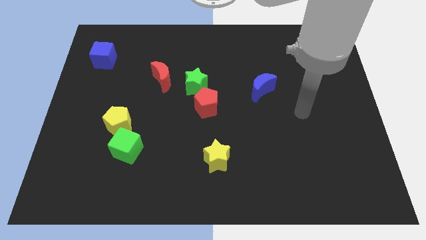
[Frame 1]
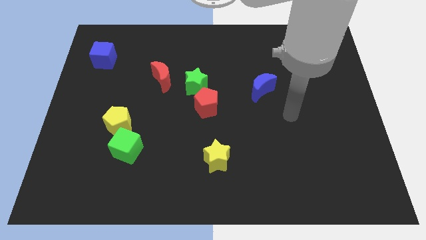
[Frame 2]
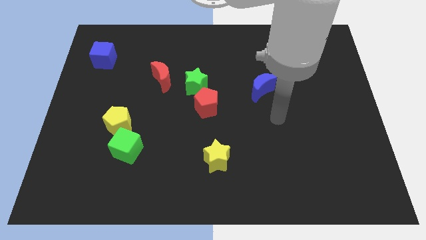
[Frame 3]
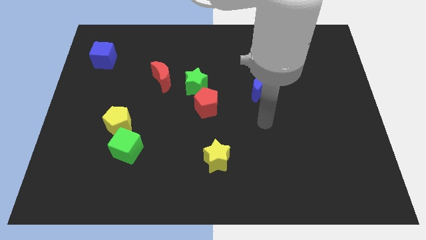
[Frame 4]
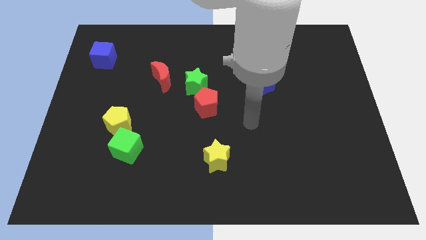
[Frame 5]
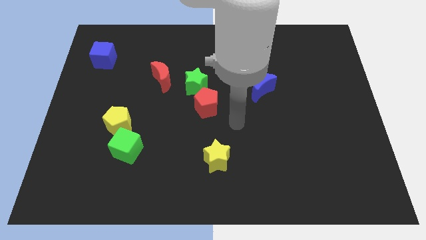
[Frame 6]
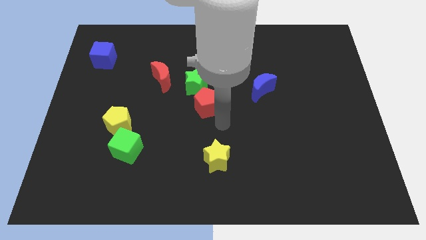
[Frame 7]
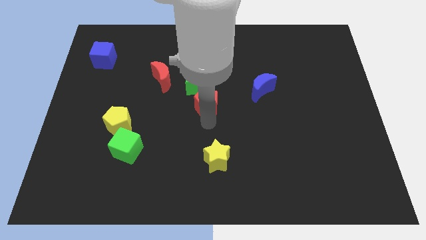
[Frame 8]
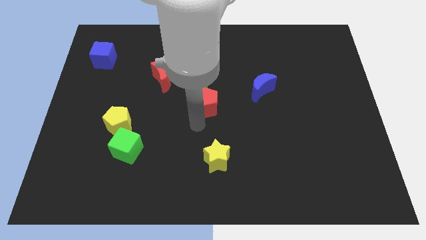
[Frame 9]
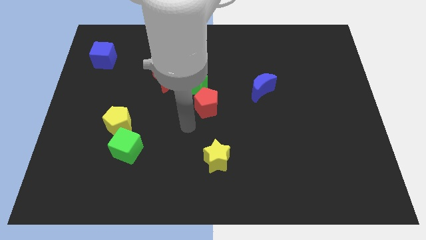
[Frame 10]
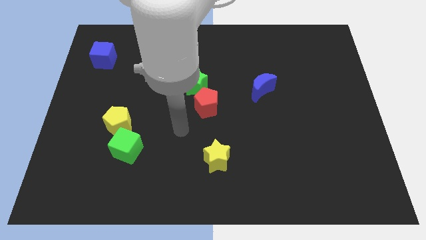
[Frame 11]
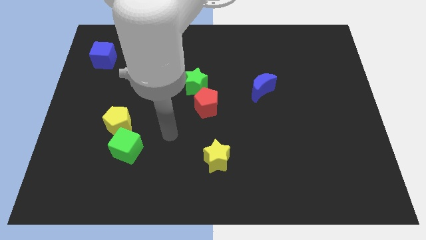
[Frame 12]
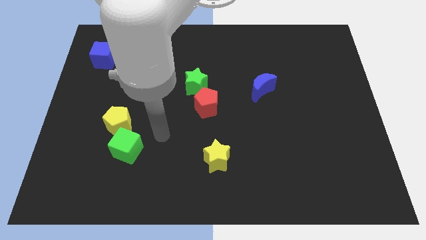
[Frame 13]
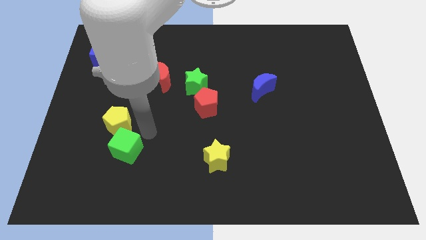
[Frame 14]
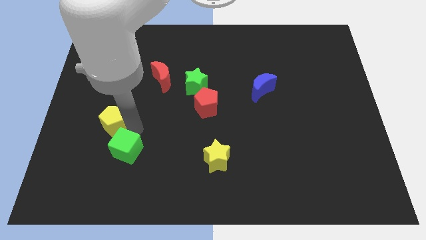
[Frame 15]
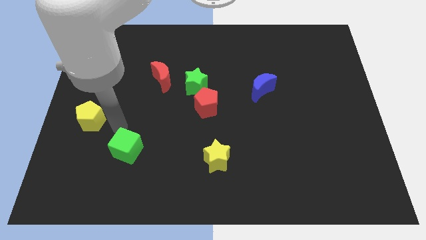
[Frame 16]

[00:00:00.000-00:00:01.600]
move the green cube away from the yellow pentagon

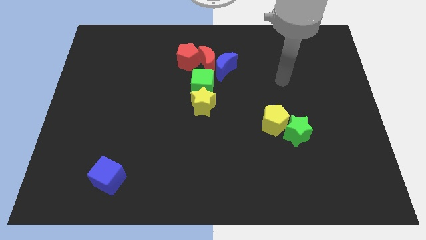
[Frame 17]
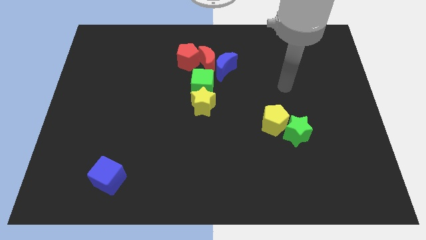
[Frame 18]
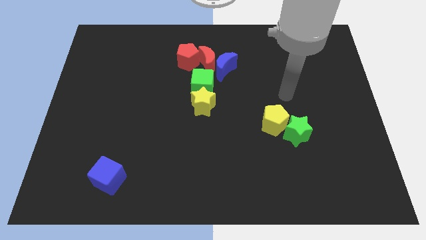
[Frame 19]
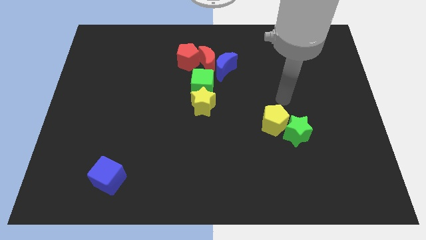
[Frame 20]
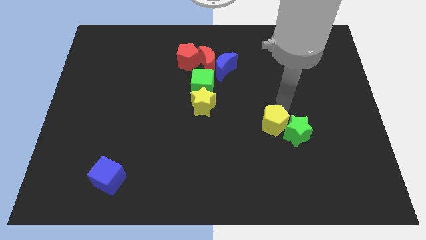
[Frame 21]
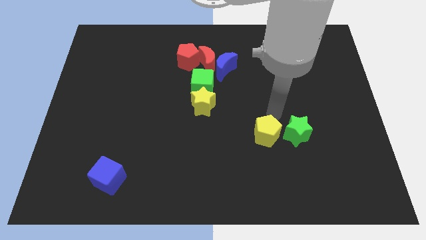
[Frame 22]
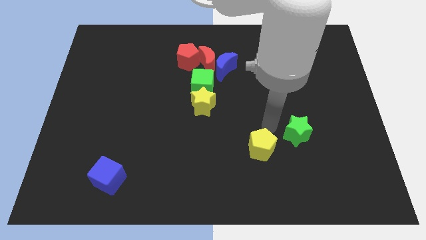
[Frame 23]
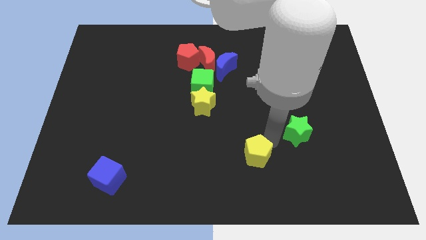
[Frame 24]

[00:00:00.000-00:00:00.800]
move the green star away from the yellow pentagon

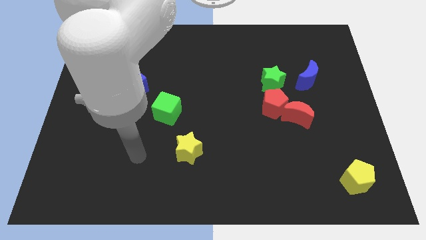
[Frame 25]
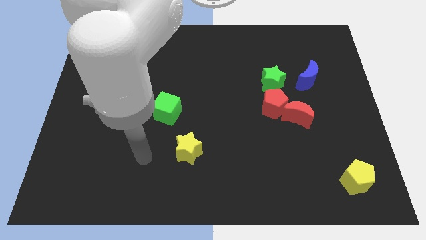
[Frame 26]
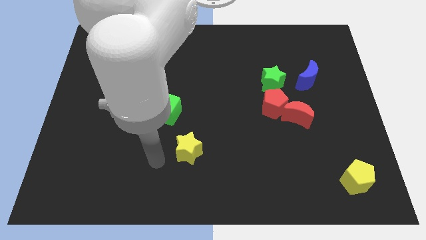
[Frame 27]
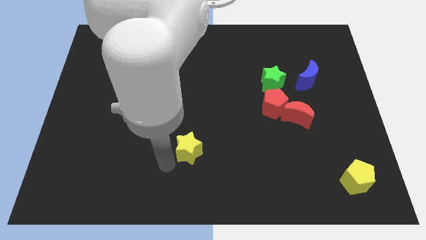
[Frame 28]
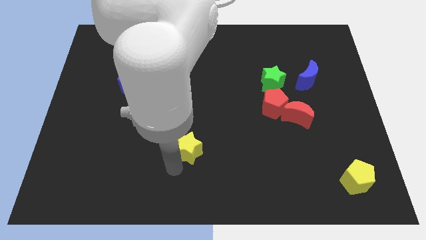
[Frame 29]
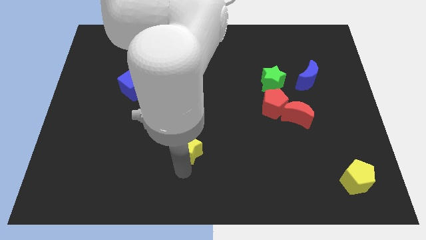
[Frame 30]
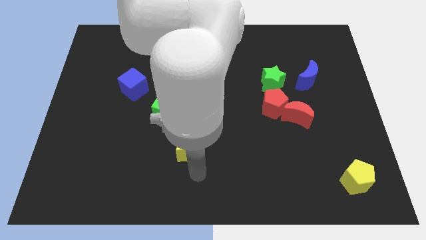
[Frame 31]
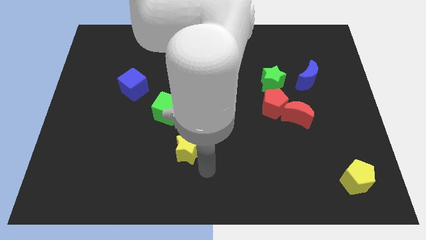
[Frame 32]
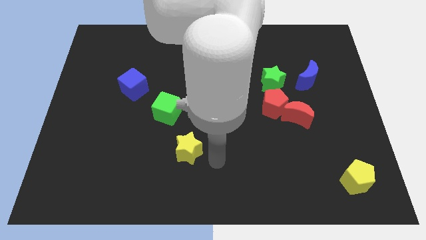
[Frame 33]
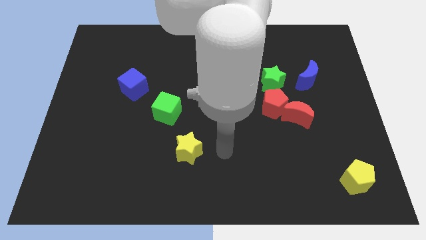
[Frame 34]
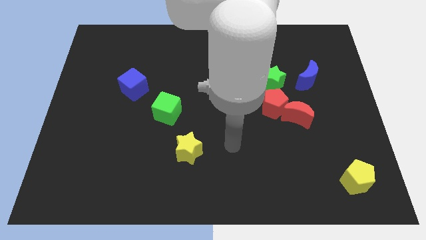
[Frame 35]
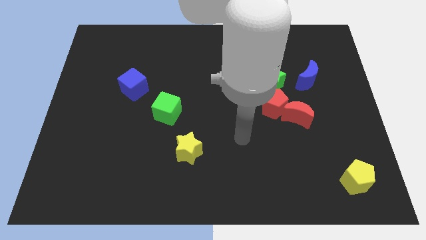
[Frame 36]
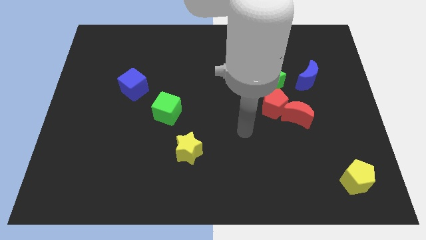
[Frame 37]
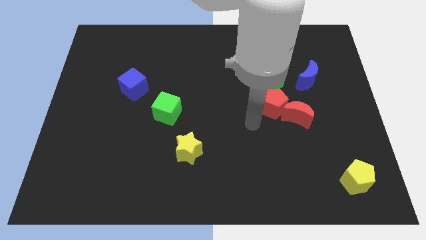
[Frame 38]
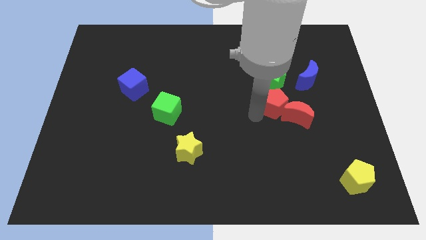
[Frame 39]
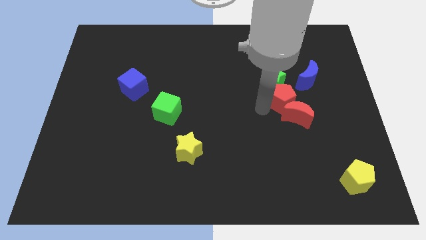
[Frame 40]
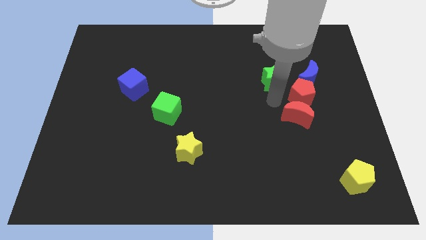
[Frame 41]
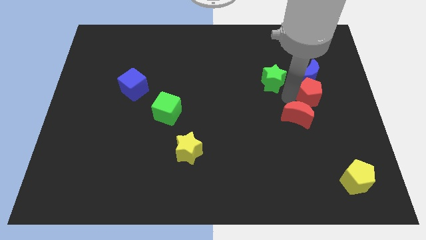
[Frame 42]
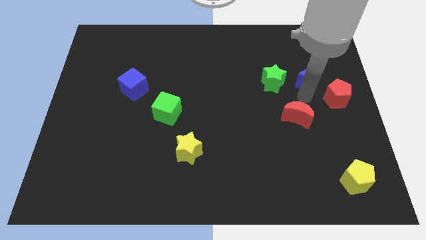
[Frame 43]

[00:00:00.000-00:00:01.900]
pull the red moon apart from the red pentagon

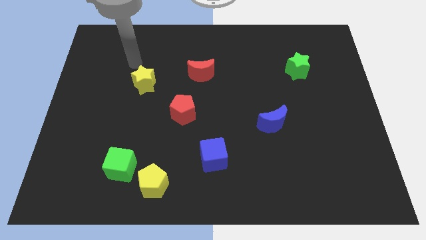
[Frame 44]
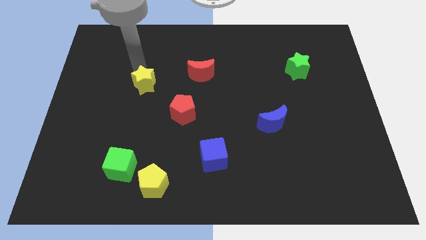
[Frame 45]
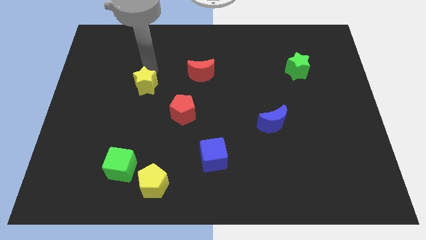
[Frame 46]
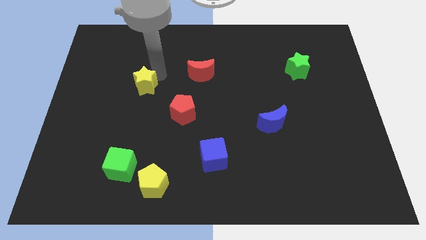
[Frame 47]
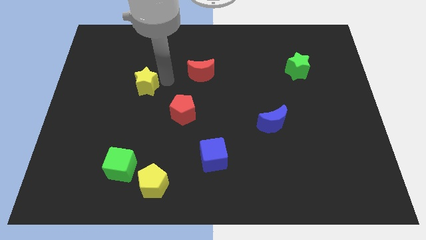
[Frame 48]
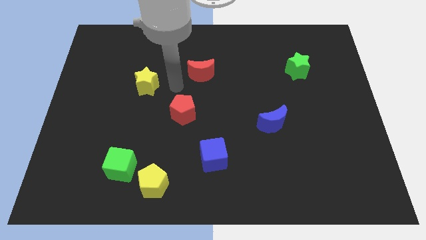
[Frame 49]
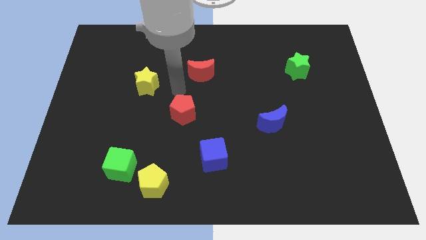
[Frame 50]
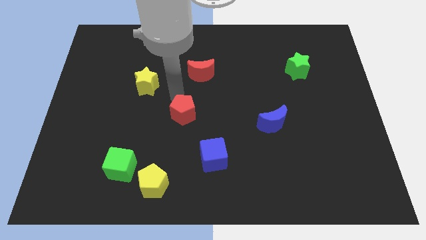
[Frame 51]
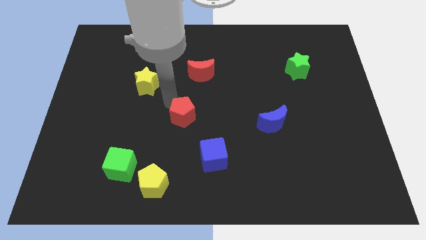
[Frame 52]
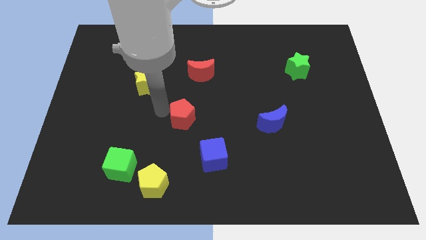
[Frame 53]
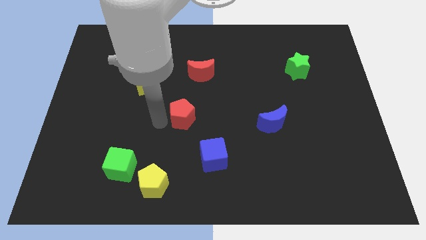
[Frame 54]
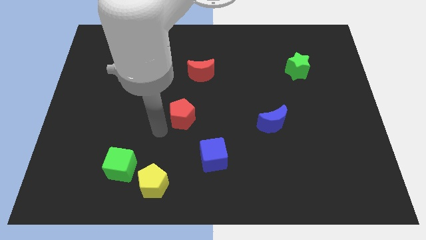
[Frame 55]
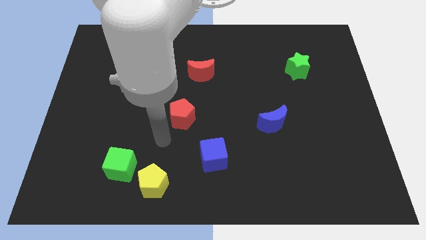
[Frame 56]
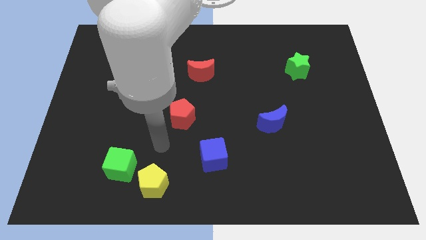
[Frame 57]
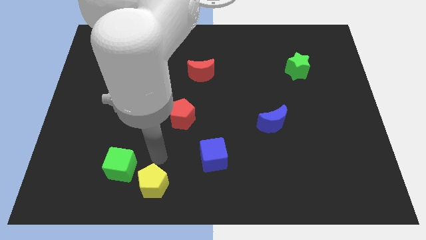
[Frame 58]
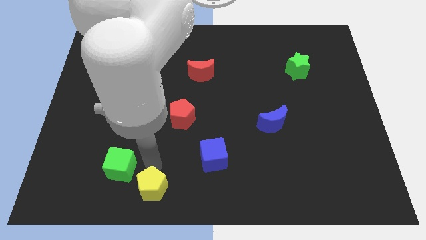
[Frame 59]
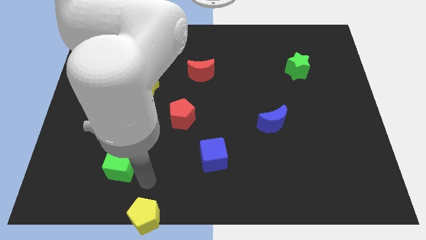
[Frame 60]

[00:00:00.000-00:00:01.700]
separate the green cube from the yellow pentagon

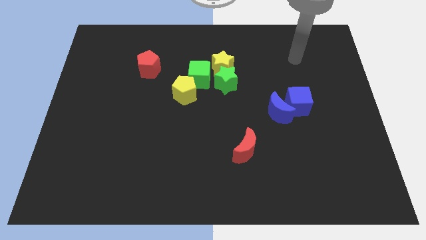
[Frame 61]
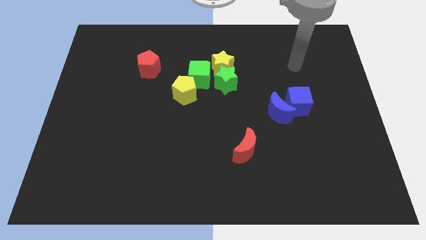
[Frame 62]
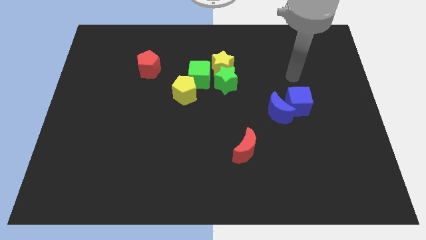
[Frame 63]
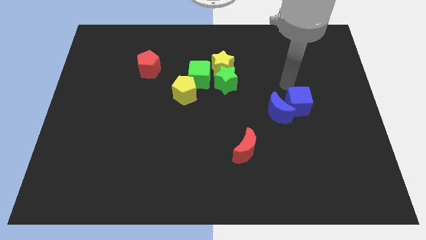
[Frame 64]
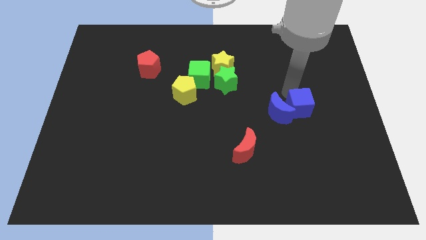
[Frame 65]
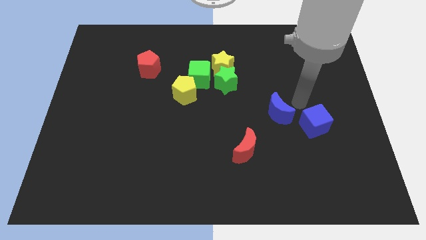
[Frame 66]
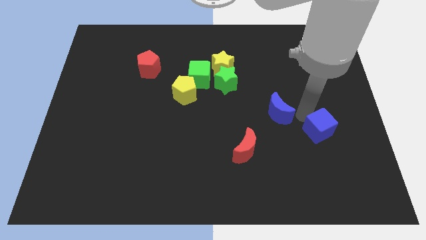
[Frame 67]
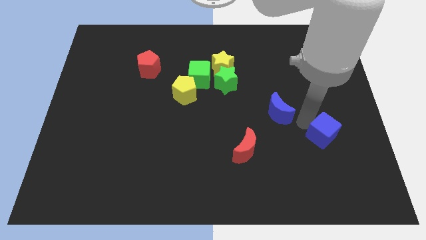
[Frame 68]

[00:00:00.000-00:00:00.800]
move the blue moon away from the blue cube

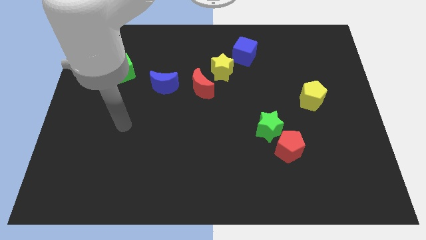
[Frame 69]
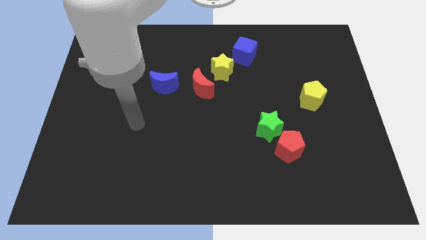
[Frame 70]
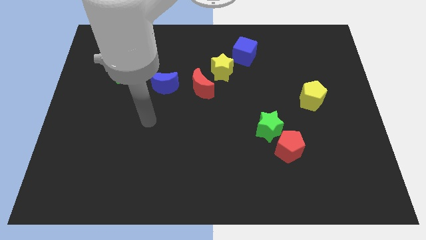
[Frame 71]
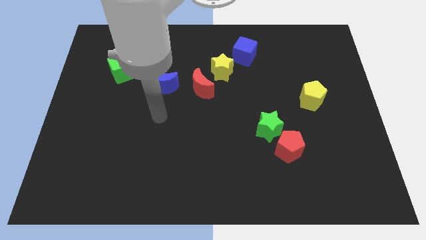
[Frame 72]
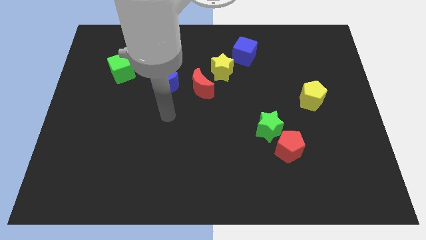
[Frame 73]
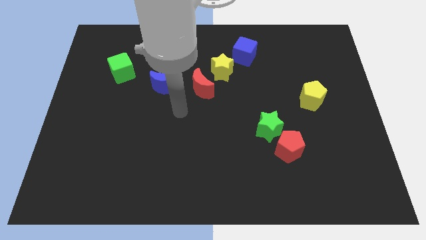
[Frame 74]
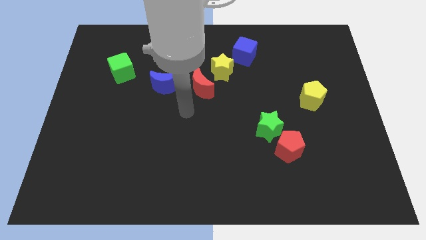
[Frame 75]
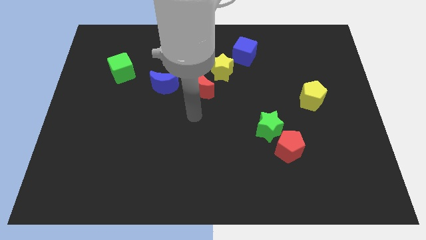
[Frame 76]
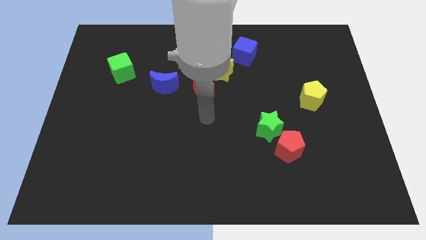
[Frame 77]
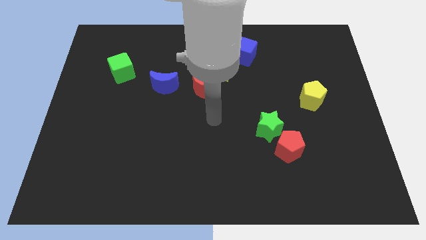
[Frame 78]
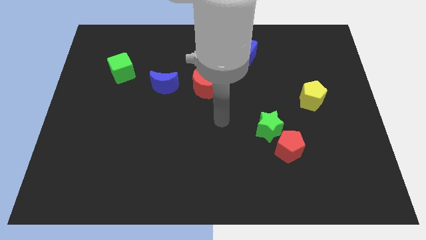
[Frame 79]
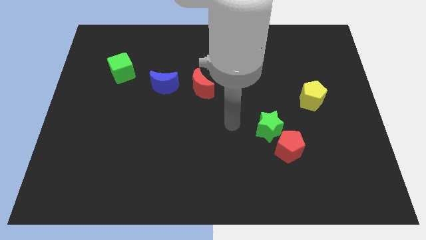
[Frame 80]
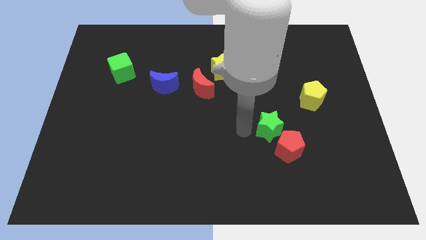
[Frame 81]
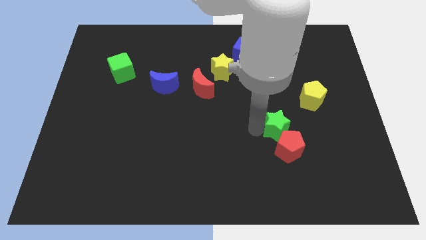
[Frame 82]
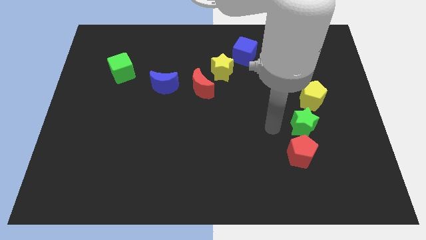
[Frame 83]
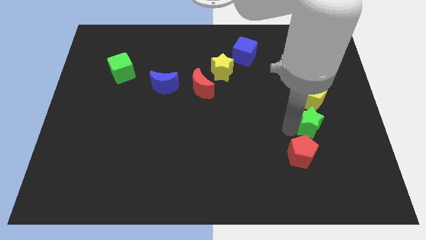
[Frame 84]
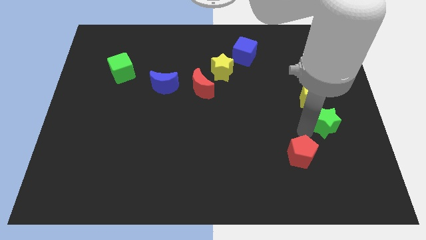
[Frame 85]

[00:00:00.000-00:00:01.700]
separate the red pentagon from the green star

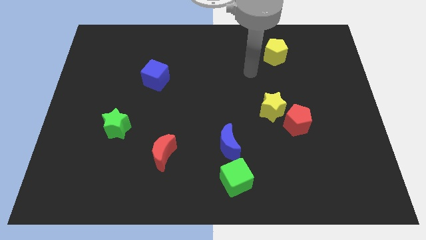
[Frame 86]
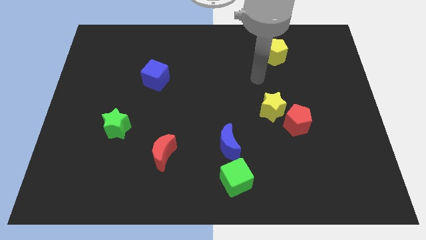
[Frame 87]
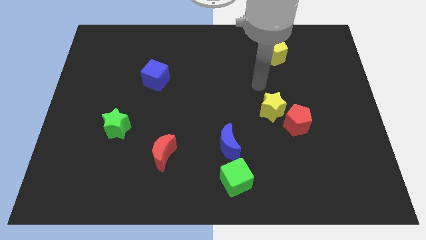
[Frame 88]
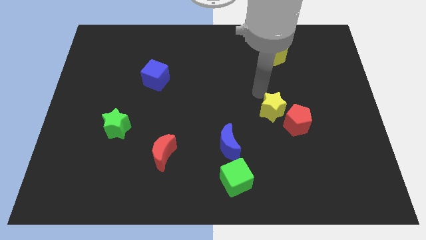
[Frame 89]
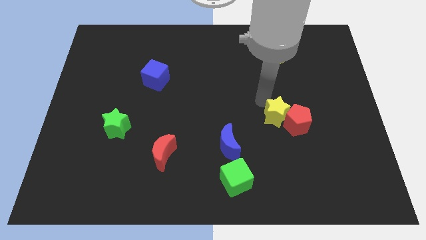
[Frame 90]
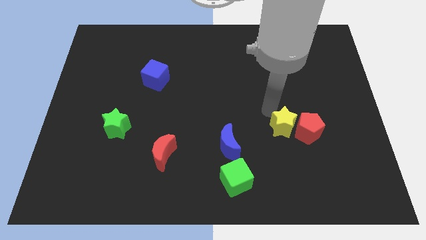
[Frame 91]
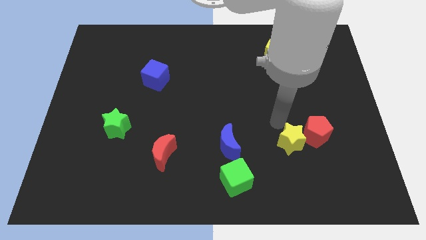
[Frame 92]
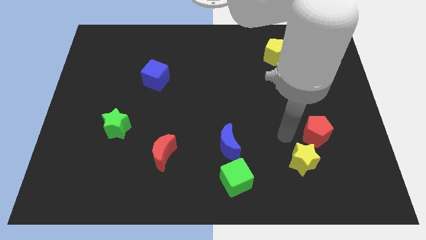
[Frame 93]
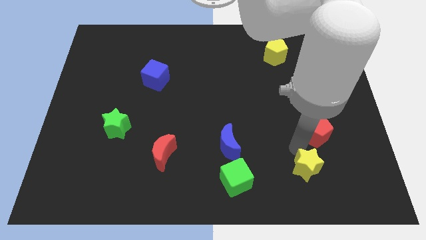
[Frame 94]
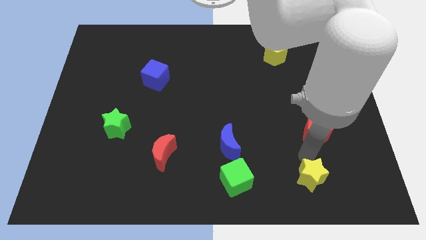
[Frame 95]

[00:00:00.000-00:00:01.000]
separate the red pentagon from the yellow star

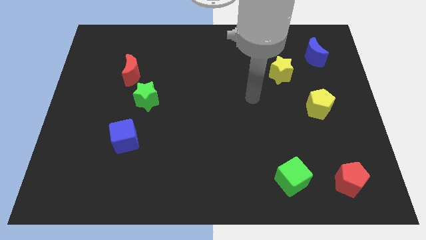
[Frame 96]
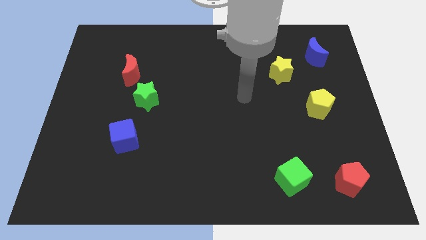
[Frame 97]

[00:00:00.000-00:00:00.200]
move the red moon away from the green star
